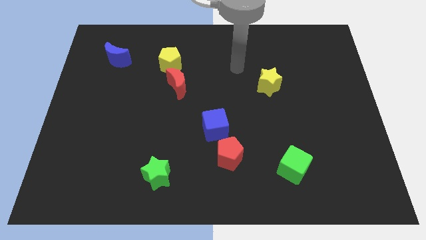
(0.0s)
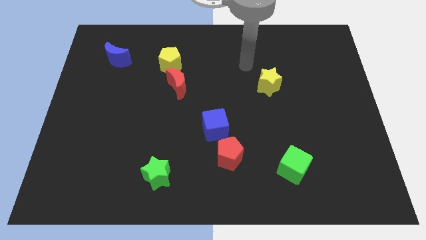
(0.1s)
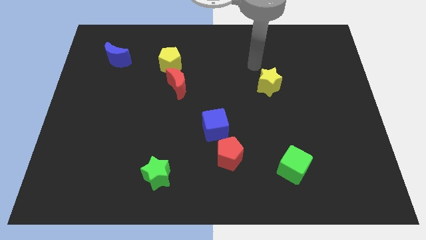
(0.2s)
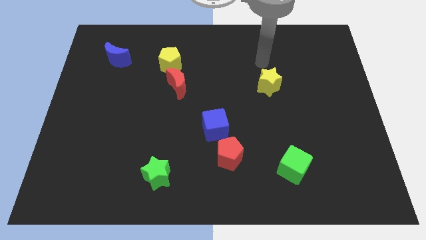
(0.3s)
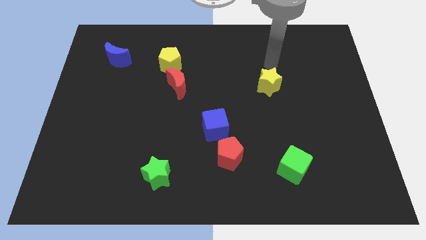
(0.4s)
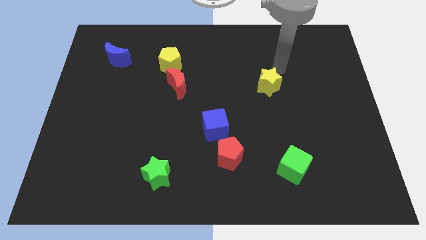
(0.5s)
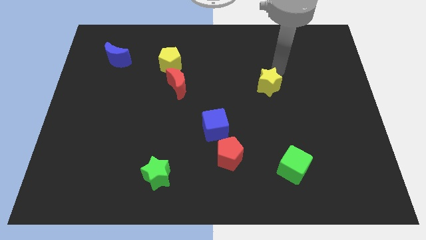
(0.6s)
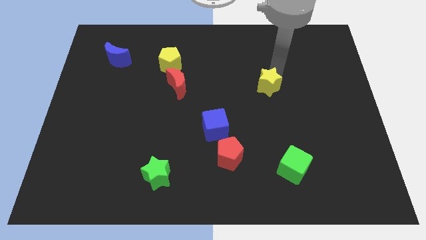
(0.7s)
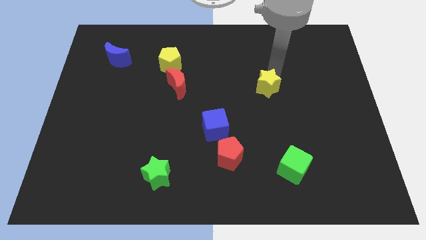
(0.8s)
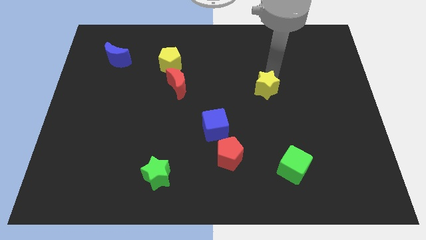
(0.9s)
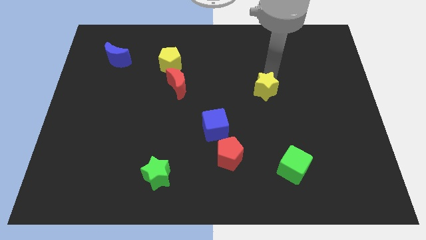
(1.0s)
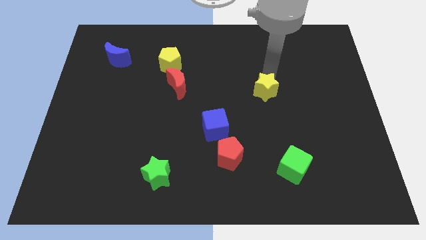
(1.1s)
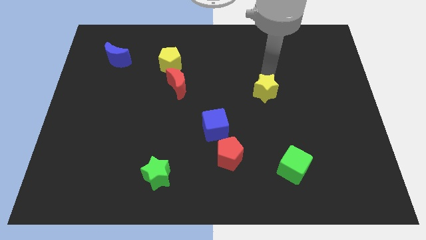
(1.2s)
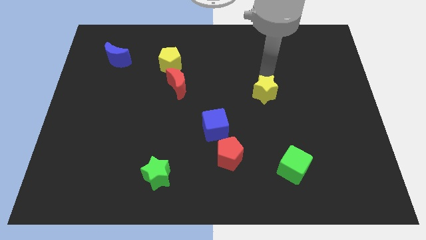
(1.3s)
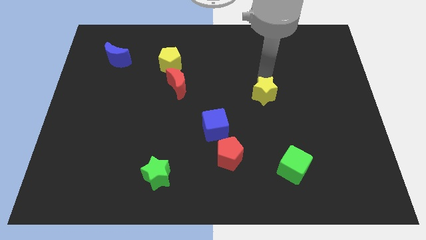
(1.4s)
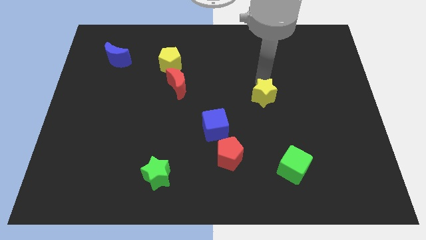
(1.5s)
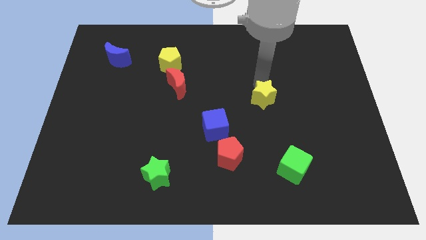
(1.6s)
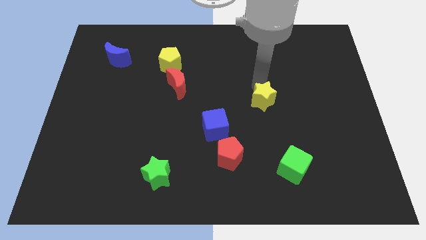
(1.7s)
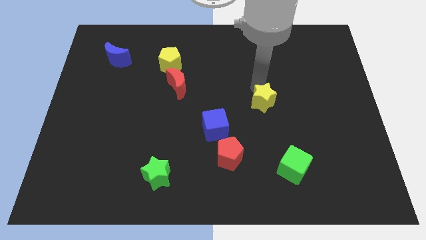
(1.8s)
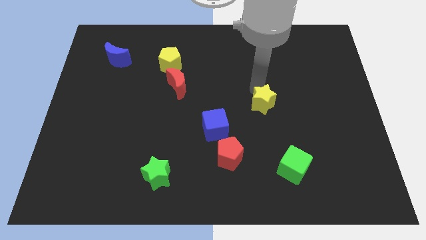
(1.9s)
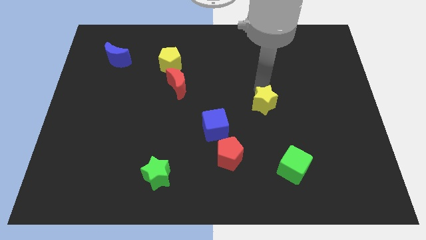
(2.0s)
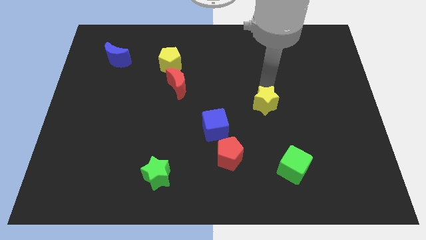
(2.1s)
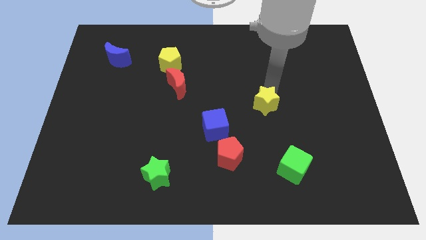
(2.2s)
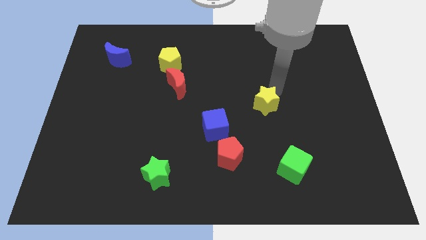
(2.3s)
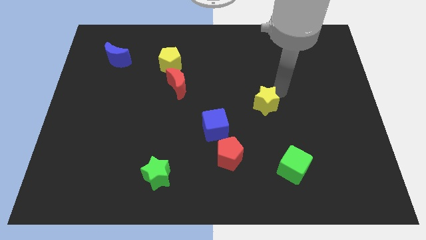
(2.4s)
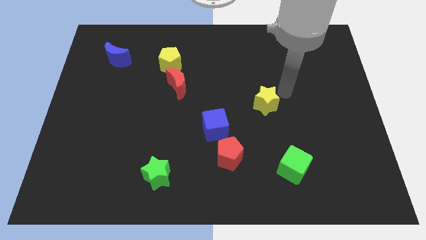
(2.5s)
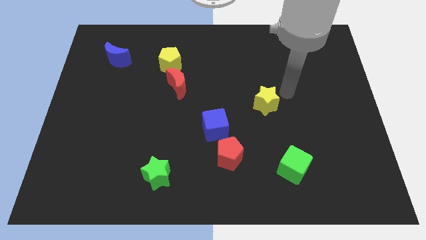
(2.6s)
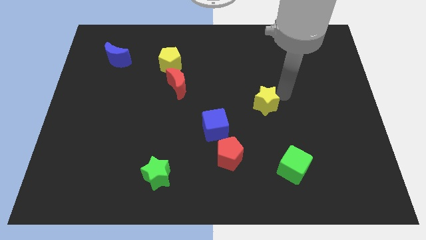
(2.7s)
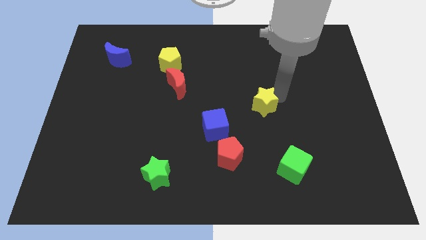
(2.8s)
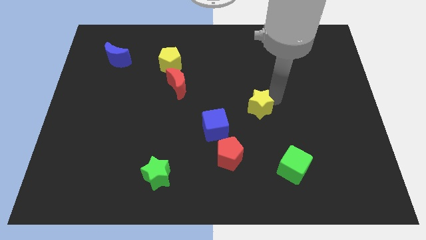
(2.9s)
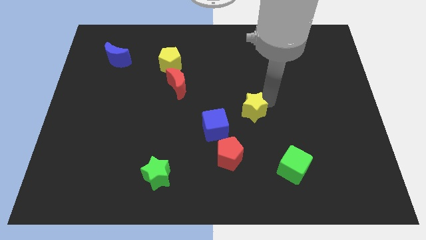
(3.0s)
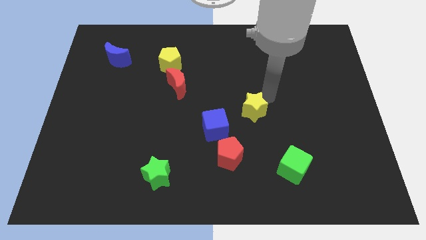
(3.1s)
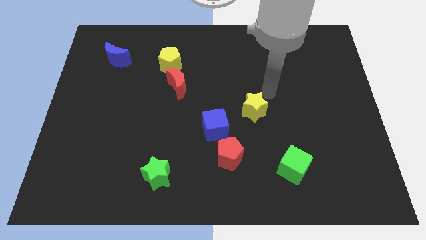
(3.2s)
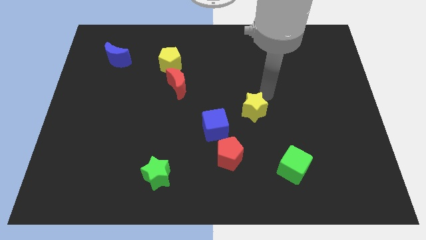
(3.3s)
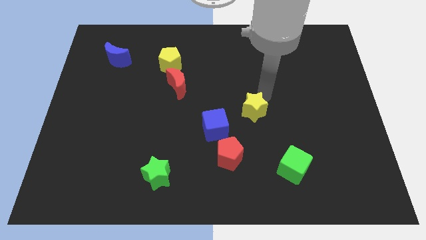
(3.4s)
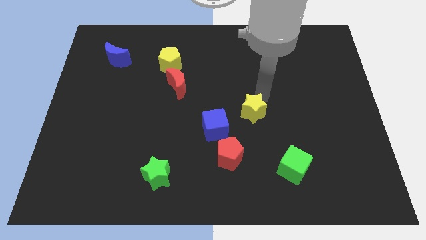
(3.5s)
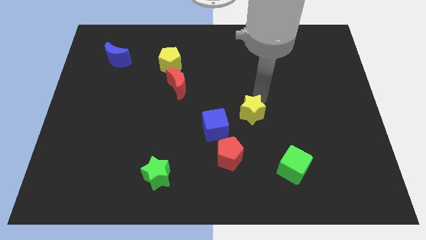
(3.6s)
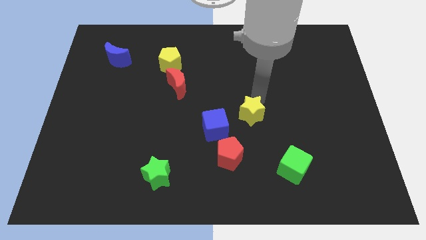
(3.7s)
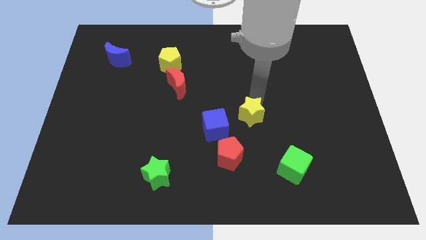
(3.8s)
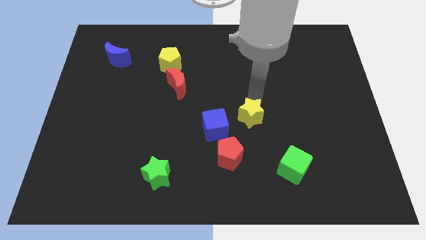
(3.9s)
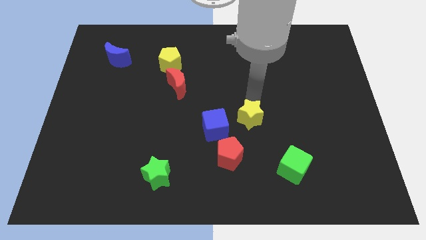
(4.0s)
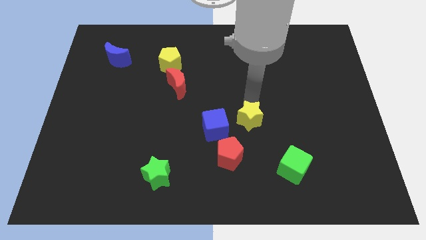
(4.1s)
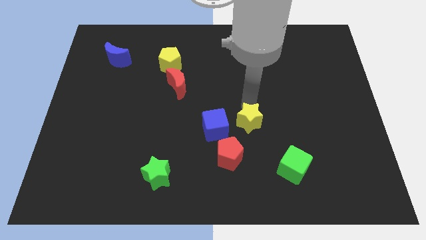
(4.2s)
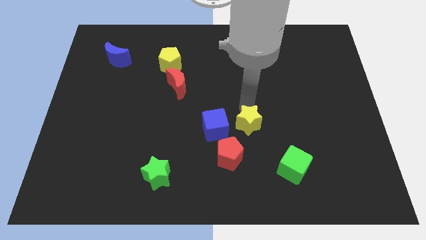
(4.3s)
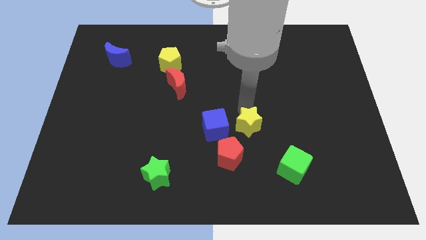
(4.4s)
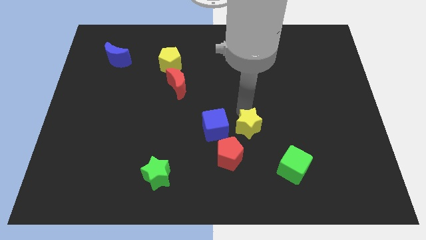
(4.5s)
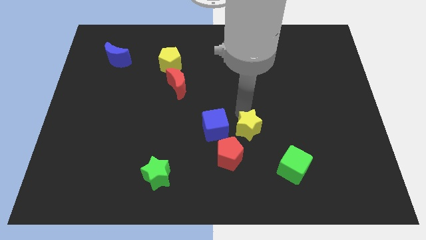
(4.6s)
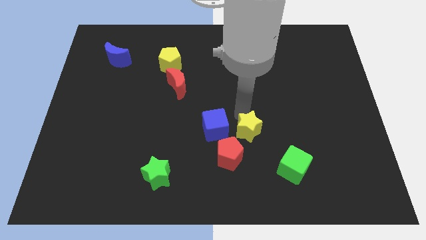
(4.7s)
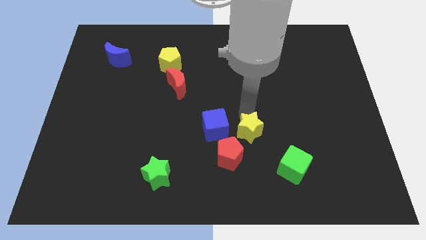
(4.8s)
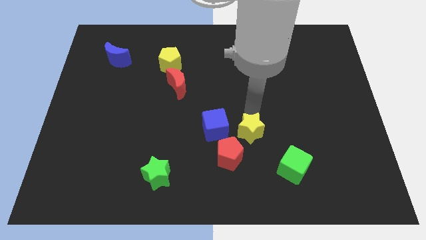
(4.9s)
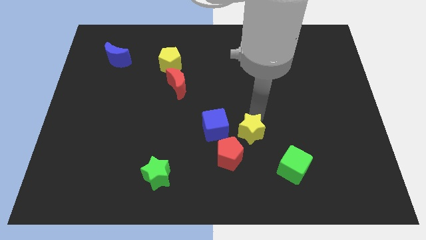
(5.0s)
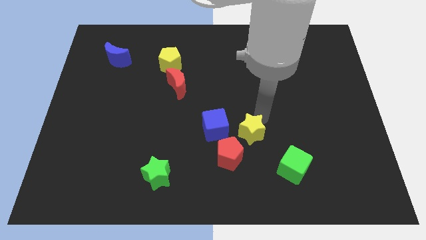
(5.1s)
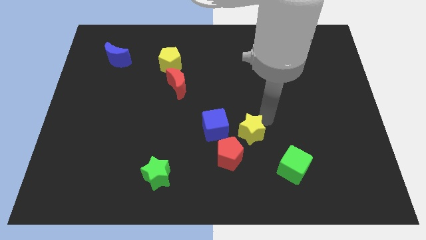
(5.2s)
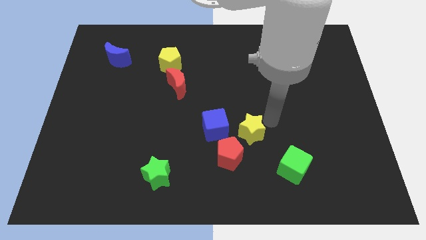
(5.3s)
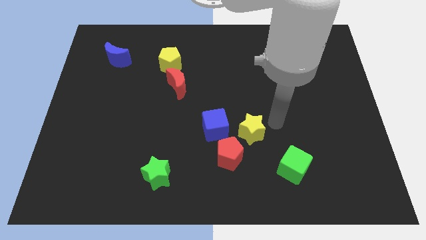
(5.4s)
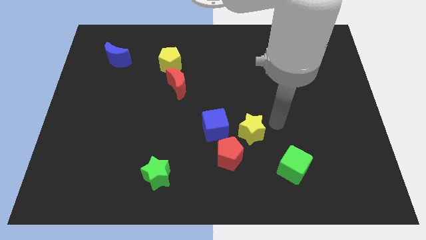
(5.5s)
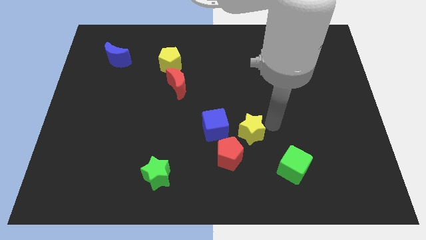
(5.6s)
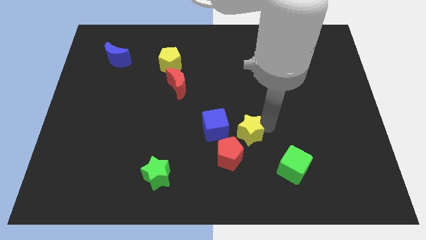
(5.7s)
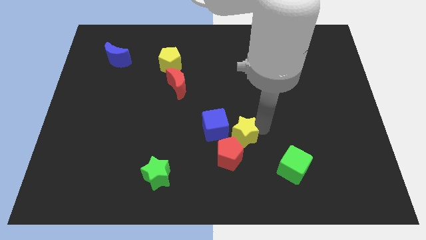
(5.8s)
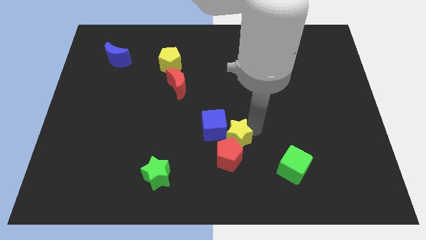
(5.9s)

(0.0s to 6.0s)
move the yellow star towards the red pentagon

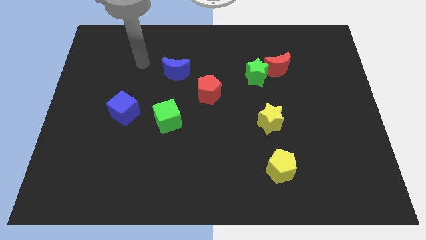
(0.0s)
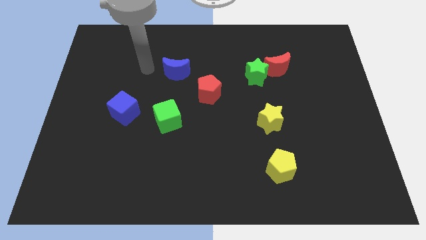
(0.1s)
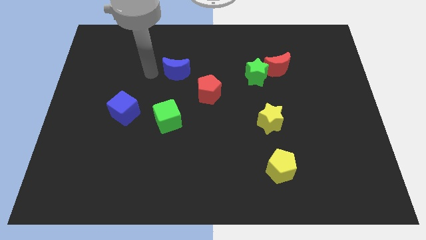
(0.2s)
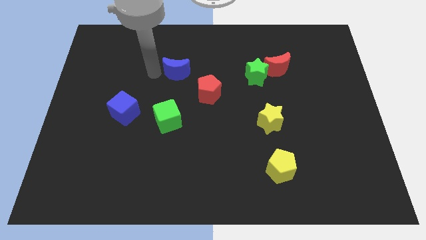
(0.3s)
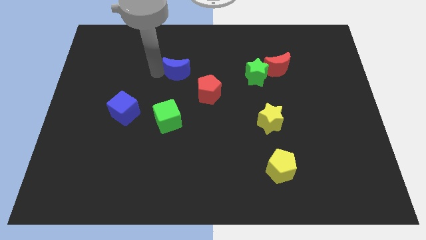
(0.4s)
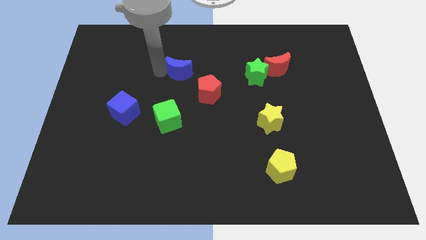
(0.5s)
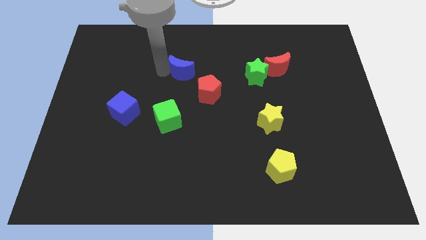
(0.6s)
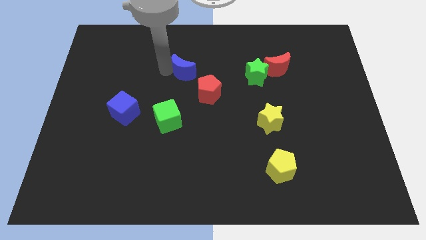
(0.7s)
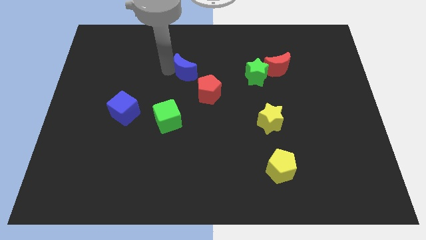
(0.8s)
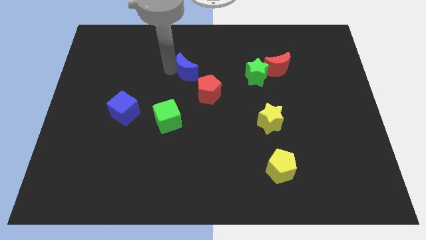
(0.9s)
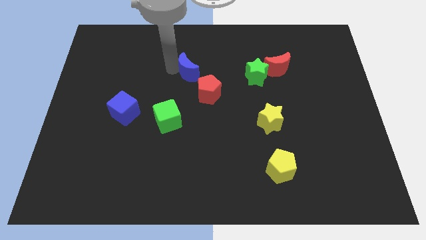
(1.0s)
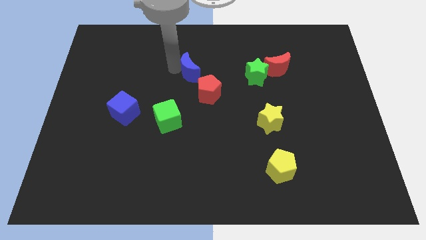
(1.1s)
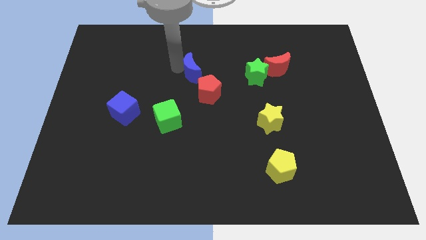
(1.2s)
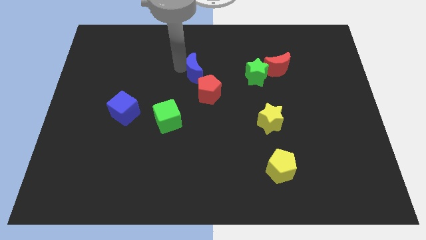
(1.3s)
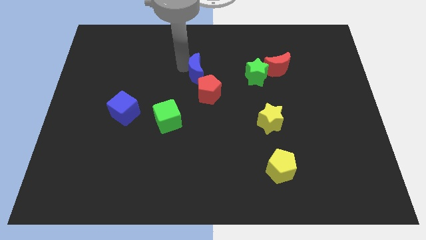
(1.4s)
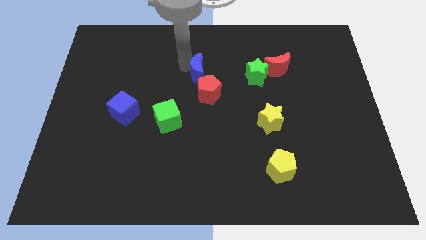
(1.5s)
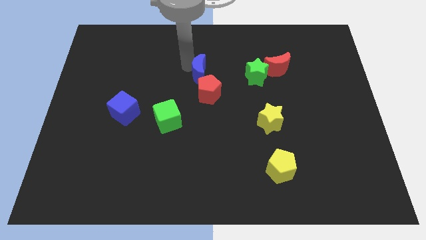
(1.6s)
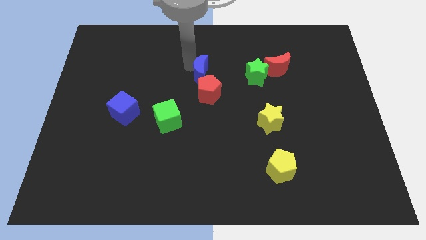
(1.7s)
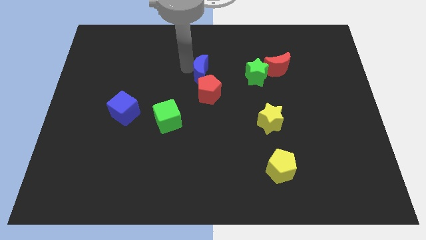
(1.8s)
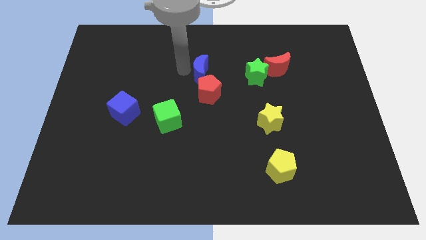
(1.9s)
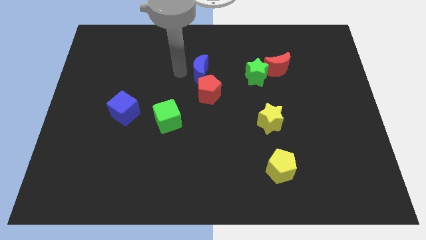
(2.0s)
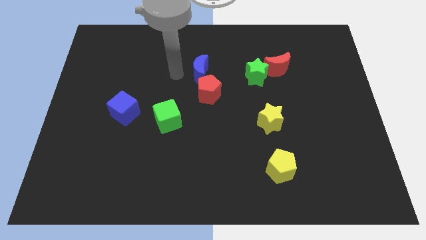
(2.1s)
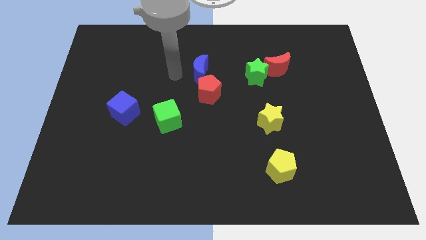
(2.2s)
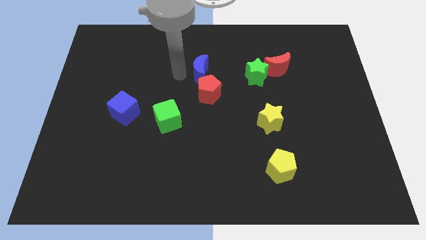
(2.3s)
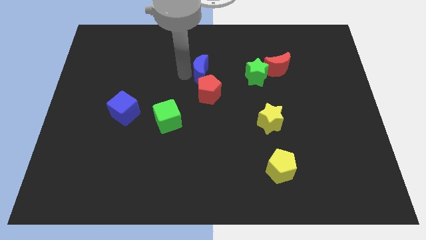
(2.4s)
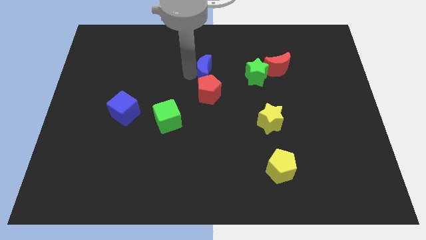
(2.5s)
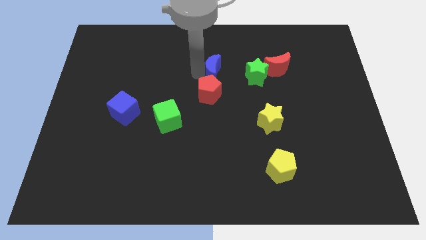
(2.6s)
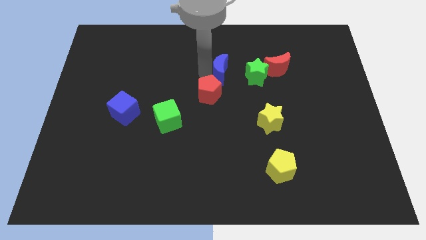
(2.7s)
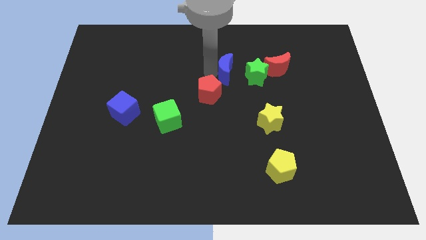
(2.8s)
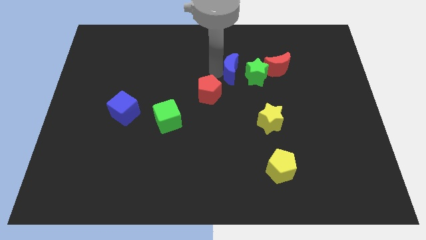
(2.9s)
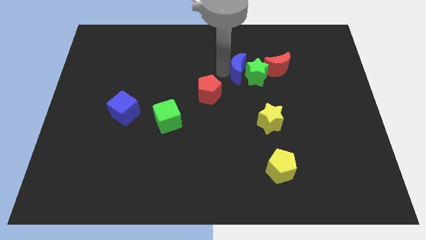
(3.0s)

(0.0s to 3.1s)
move the blue moon close to the green star
